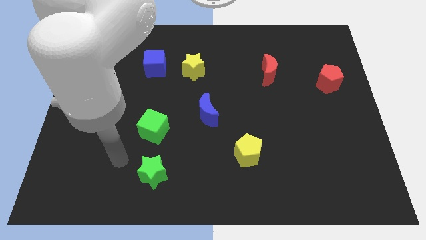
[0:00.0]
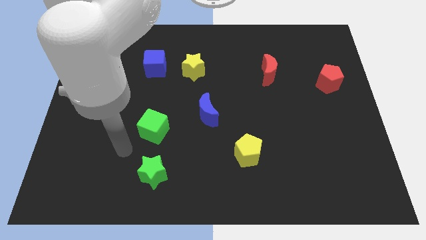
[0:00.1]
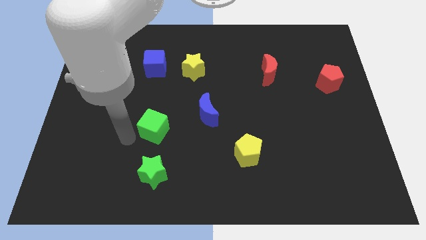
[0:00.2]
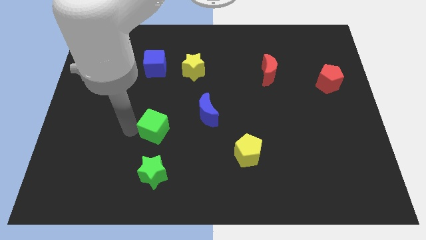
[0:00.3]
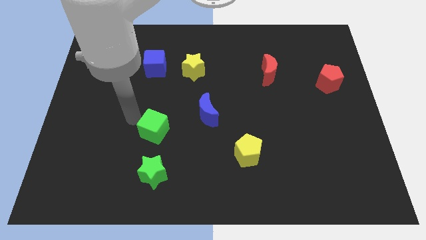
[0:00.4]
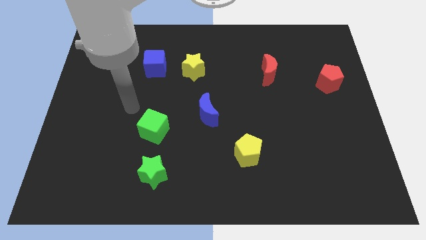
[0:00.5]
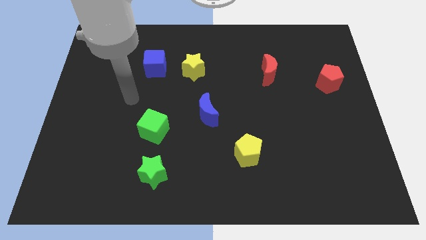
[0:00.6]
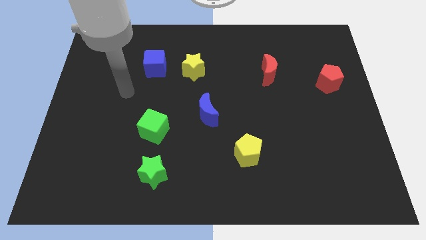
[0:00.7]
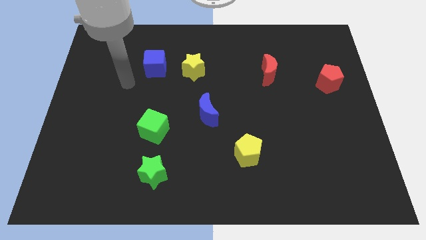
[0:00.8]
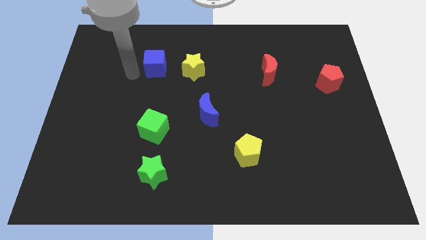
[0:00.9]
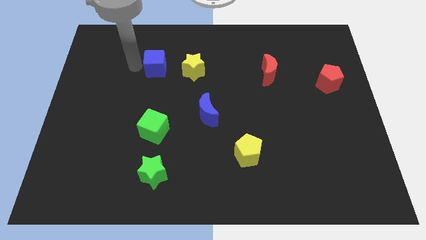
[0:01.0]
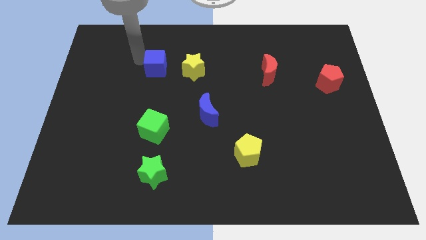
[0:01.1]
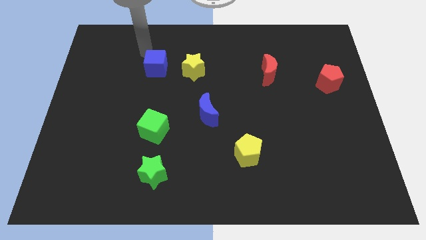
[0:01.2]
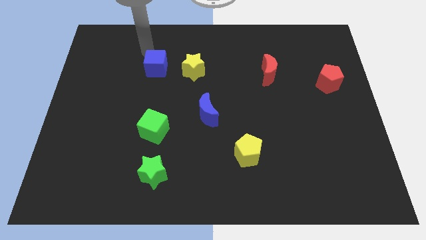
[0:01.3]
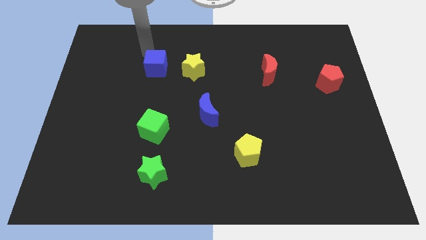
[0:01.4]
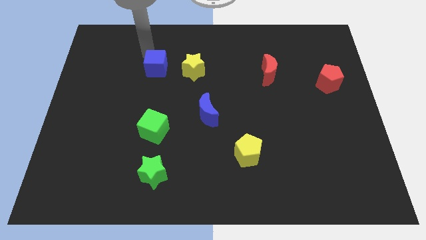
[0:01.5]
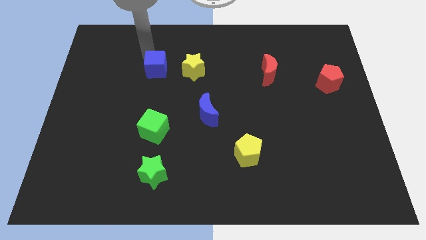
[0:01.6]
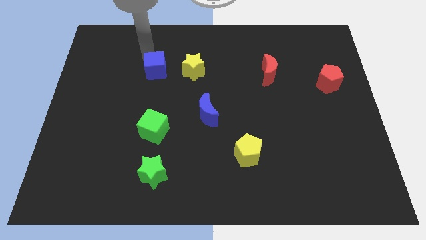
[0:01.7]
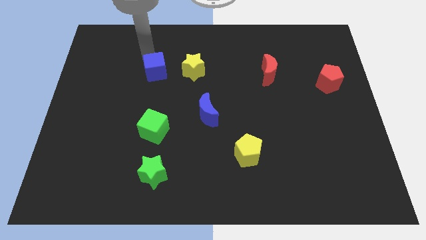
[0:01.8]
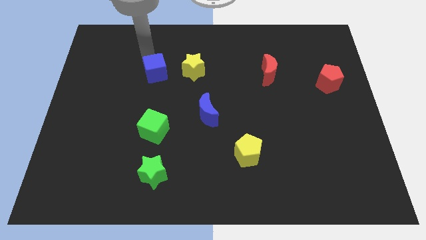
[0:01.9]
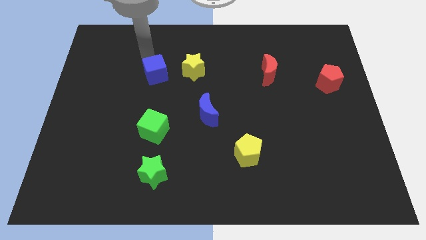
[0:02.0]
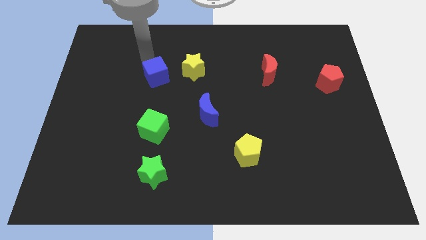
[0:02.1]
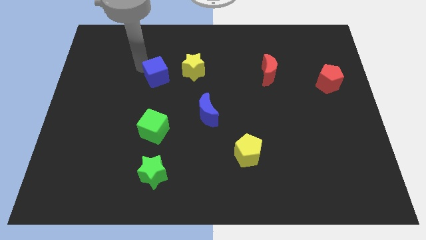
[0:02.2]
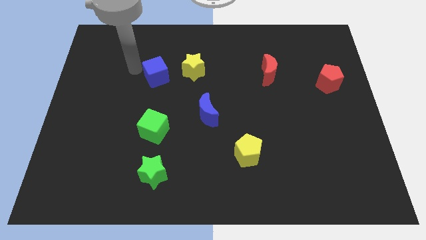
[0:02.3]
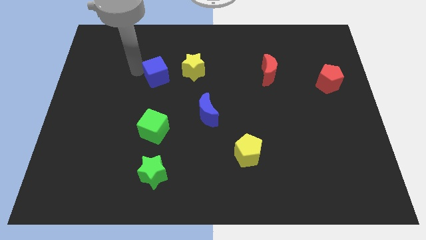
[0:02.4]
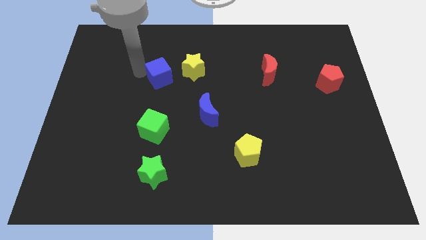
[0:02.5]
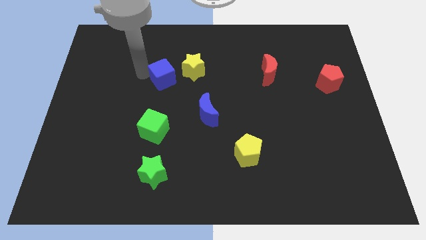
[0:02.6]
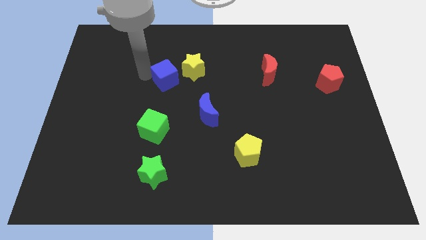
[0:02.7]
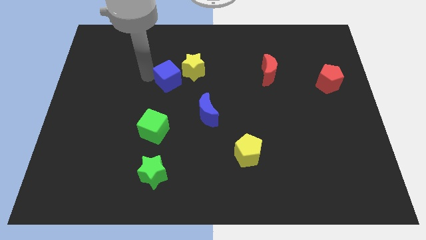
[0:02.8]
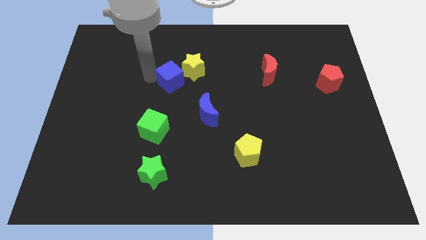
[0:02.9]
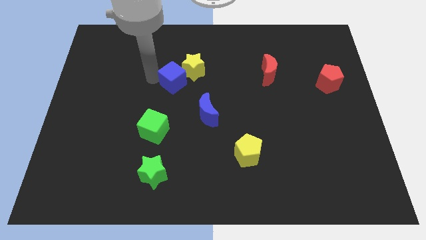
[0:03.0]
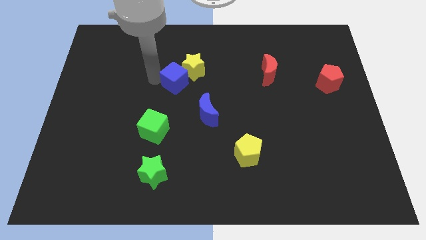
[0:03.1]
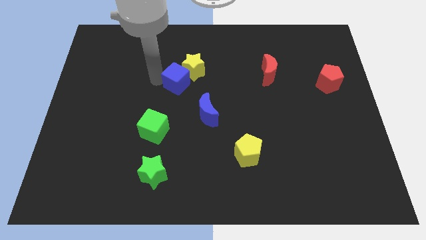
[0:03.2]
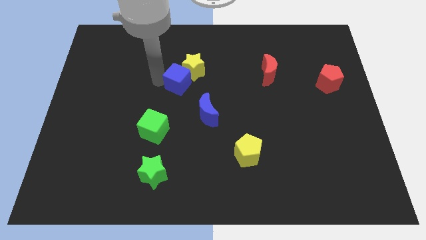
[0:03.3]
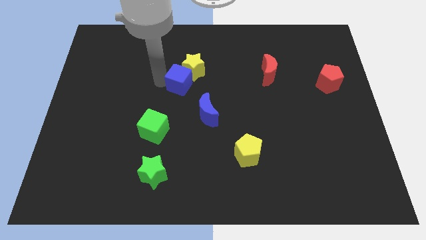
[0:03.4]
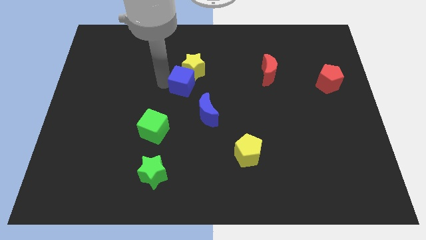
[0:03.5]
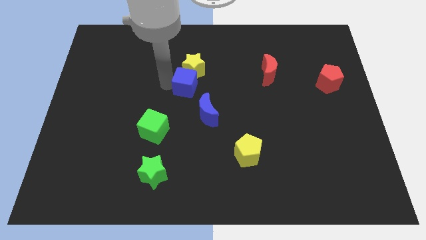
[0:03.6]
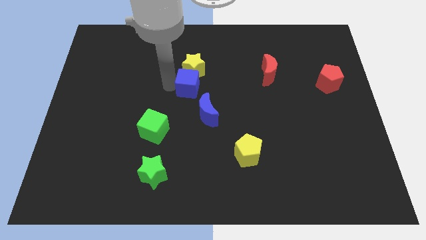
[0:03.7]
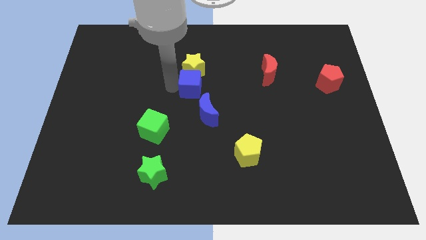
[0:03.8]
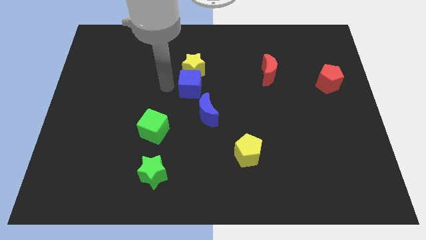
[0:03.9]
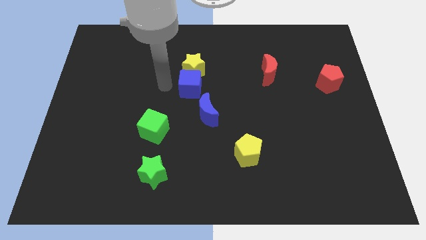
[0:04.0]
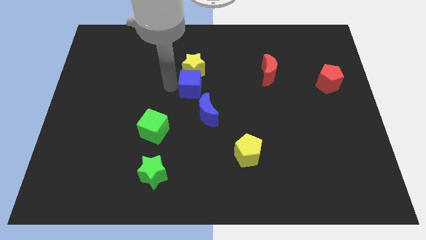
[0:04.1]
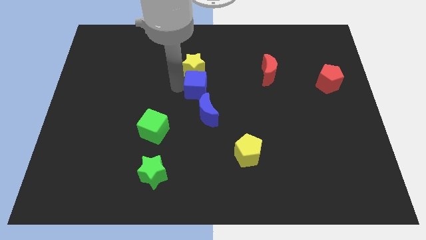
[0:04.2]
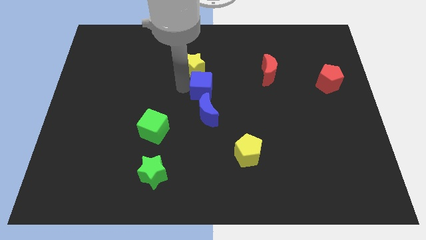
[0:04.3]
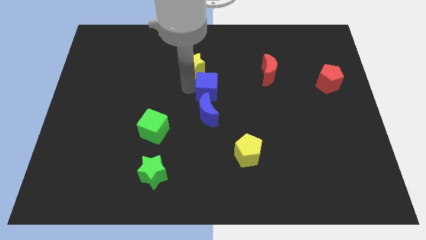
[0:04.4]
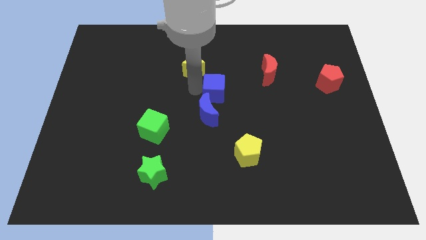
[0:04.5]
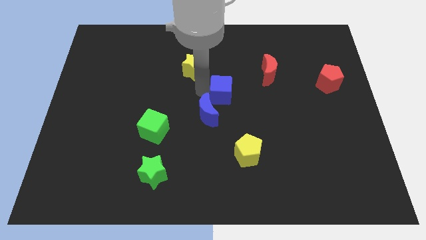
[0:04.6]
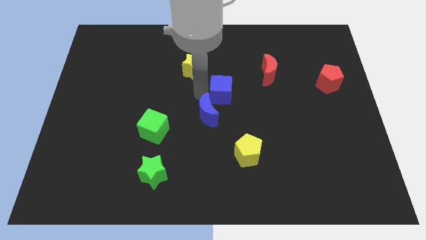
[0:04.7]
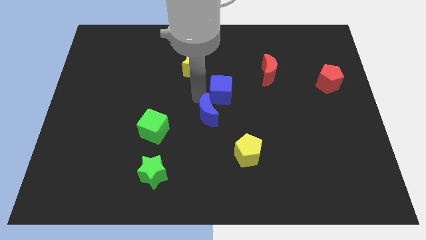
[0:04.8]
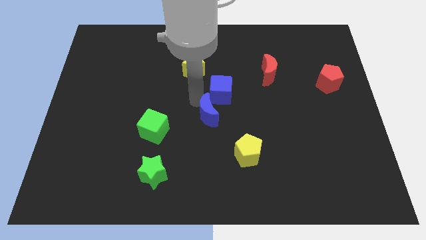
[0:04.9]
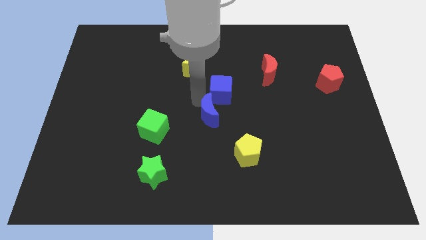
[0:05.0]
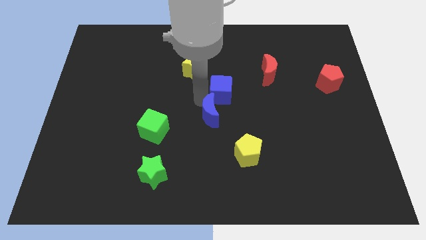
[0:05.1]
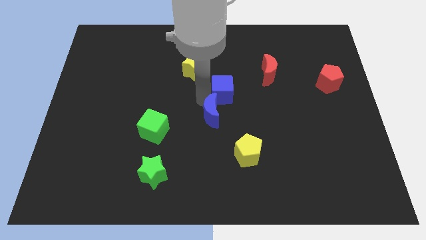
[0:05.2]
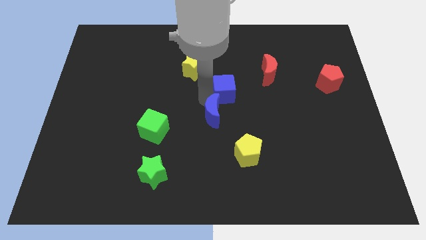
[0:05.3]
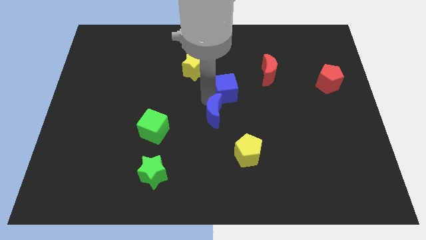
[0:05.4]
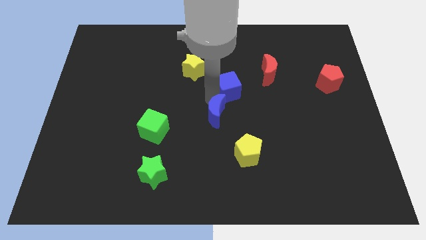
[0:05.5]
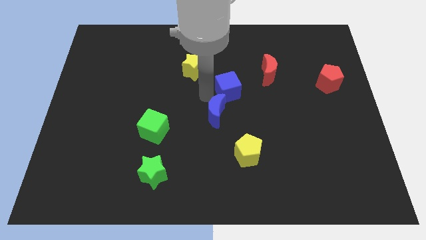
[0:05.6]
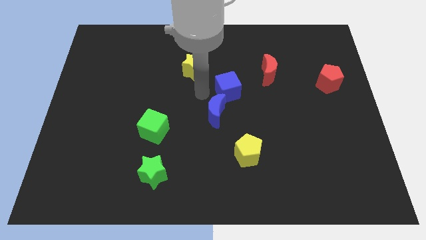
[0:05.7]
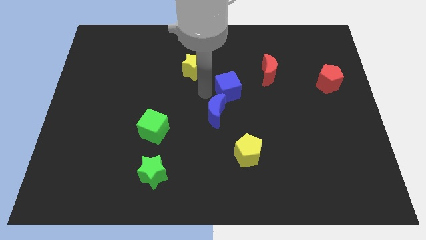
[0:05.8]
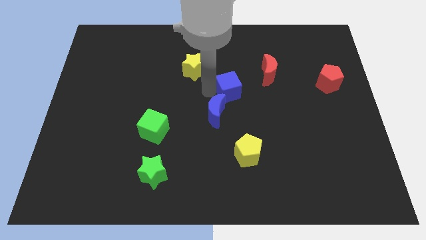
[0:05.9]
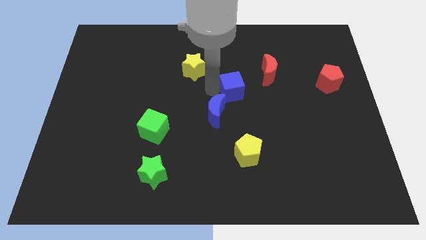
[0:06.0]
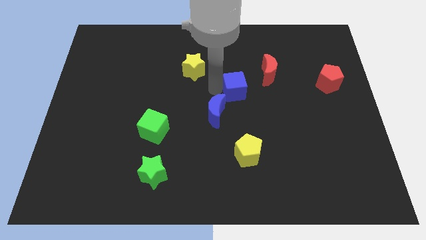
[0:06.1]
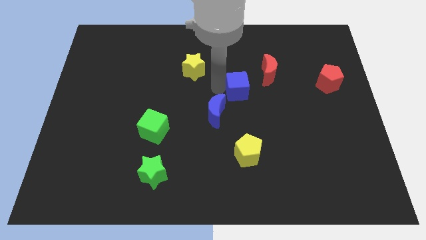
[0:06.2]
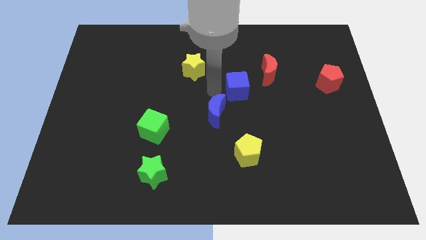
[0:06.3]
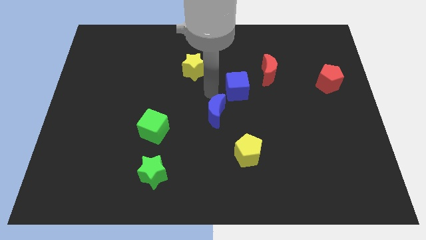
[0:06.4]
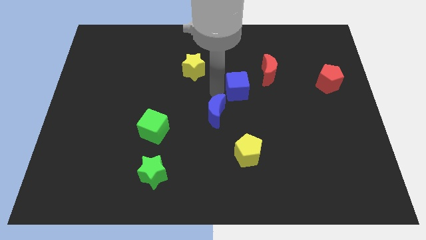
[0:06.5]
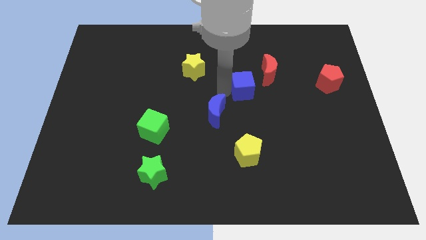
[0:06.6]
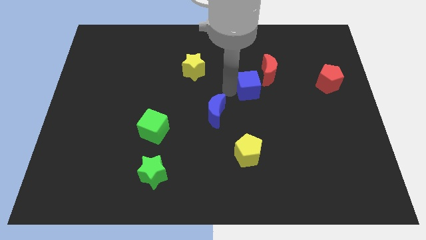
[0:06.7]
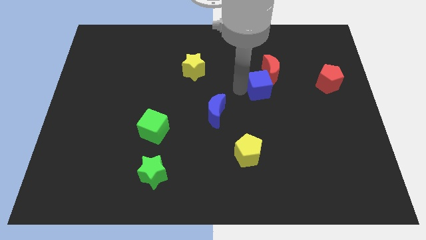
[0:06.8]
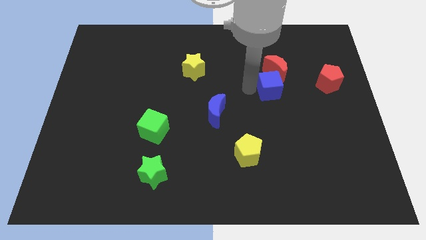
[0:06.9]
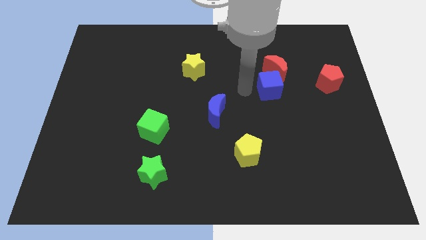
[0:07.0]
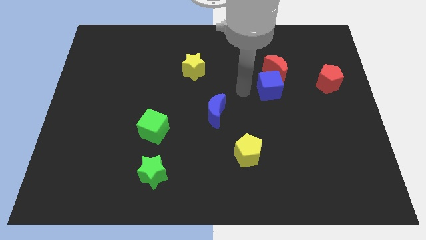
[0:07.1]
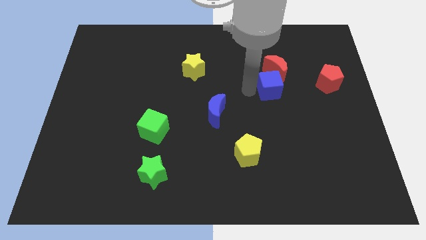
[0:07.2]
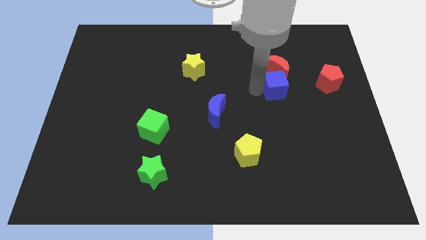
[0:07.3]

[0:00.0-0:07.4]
move the blue cube to the bottom right side of the red moon

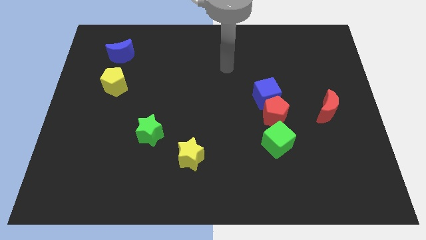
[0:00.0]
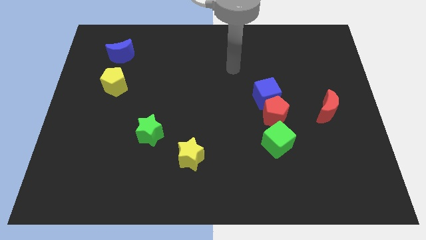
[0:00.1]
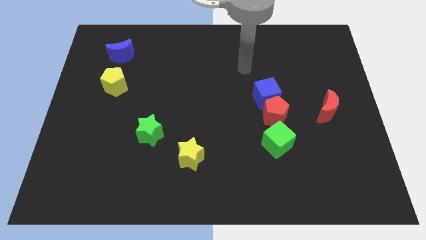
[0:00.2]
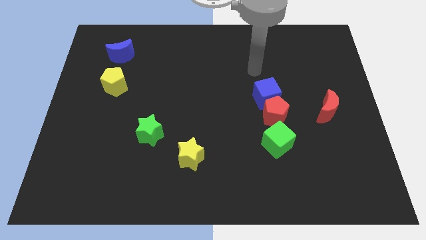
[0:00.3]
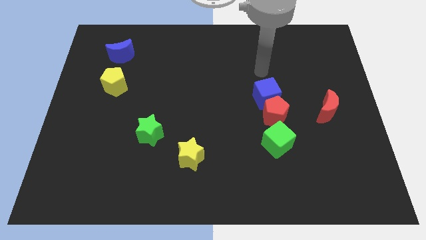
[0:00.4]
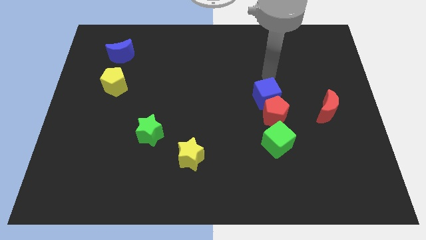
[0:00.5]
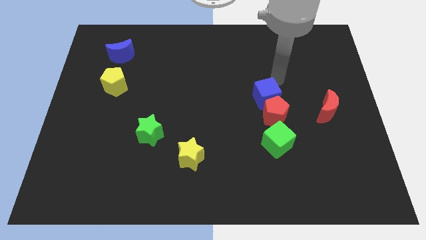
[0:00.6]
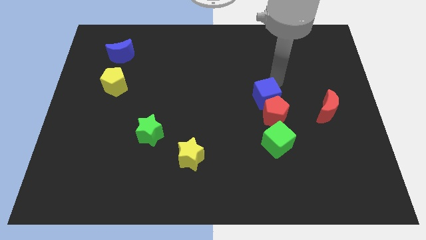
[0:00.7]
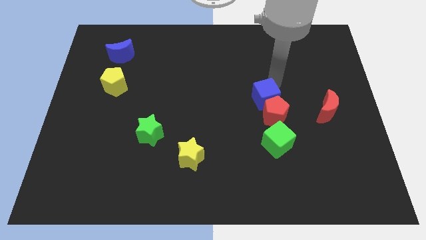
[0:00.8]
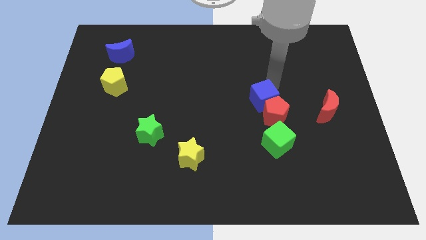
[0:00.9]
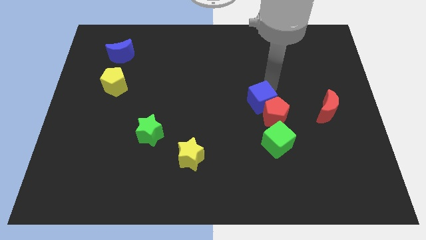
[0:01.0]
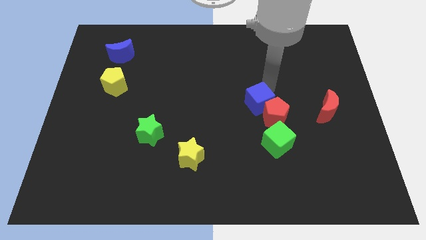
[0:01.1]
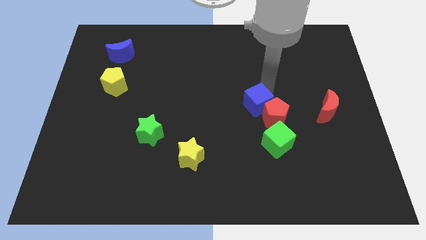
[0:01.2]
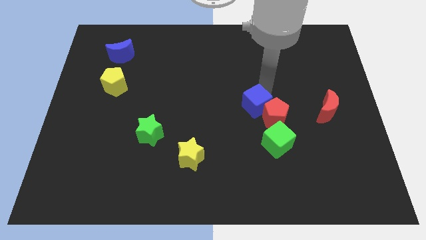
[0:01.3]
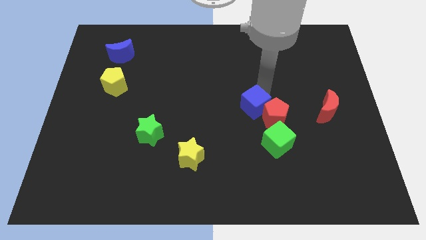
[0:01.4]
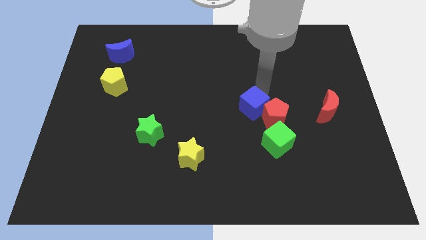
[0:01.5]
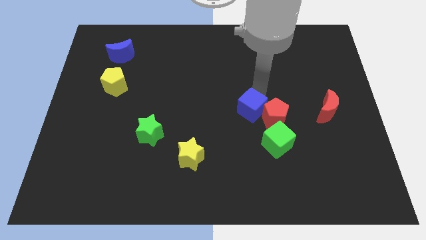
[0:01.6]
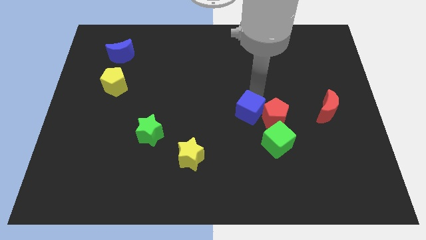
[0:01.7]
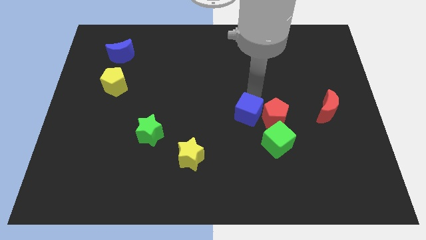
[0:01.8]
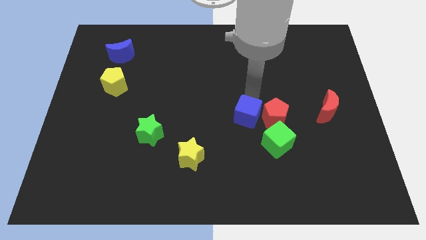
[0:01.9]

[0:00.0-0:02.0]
push the blue cube diagonally down and to the left of the red pentagon
